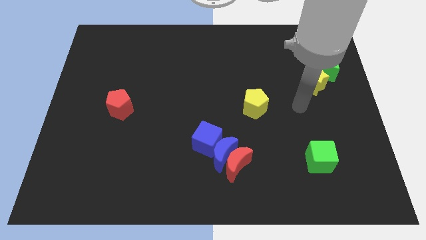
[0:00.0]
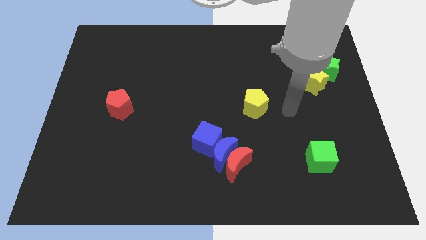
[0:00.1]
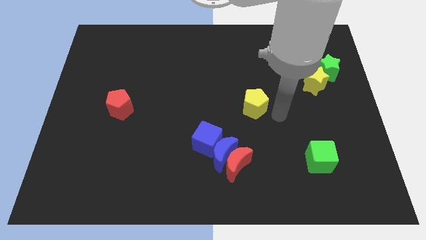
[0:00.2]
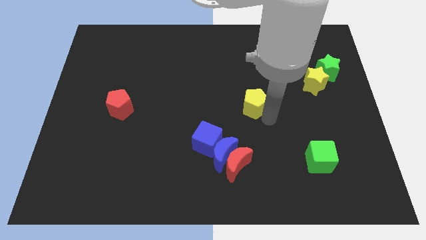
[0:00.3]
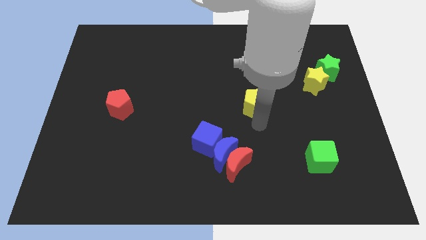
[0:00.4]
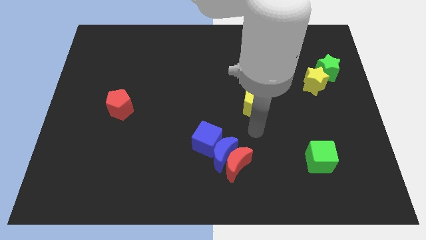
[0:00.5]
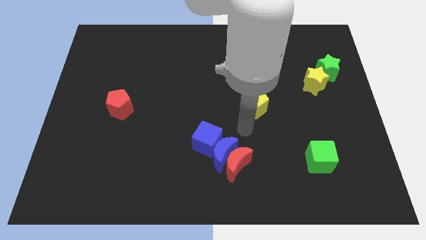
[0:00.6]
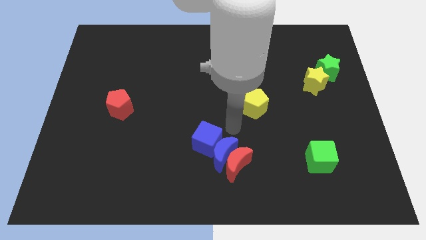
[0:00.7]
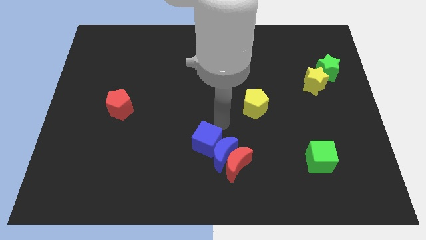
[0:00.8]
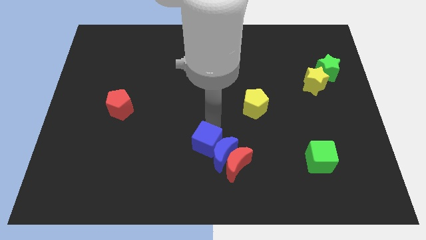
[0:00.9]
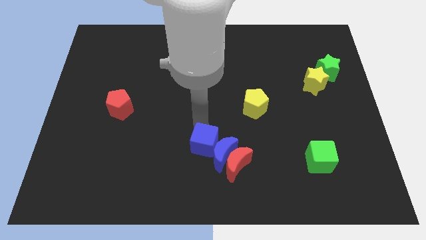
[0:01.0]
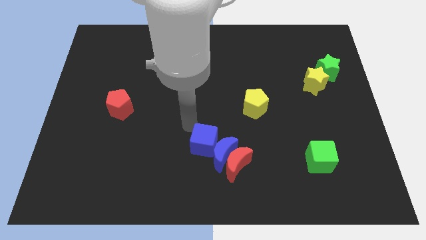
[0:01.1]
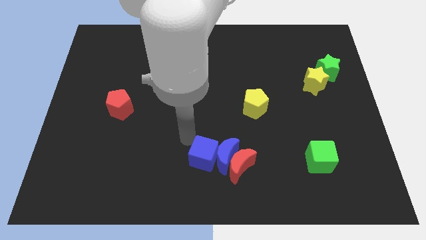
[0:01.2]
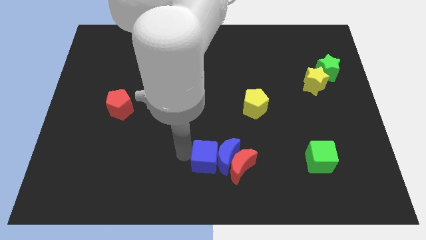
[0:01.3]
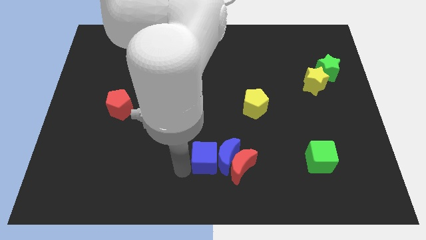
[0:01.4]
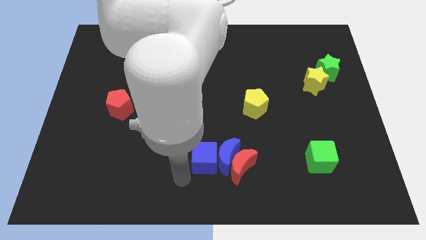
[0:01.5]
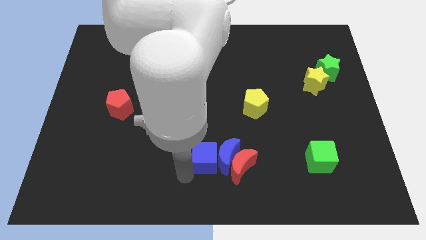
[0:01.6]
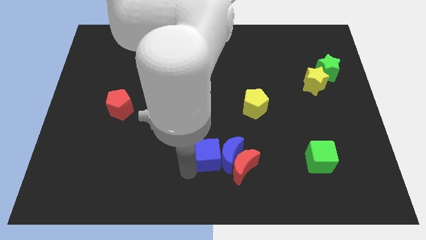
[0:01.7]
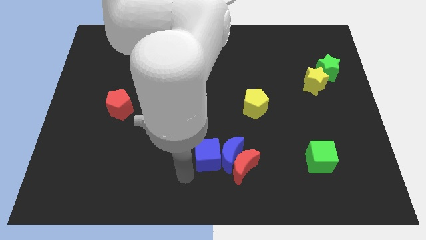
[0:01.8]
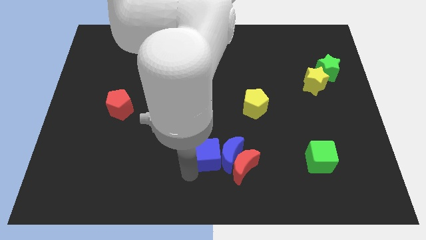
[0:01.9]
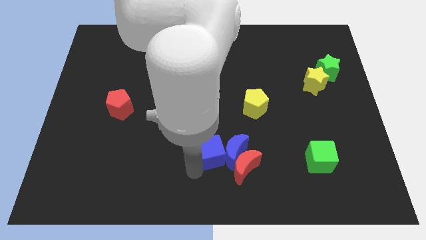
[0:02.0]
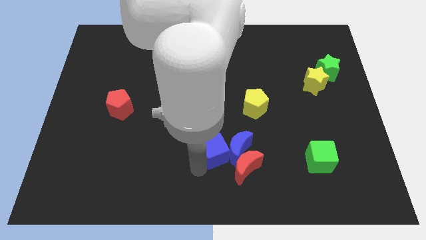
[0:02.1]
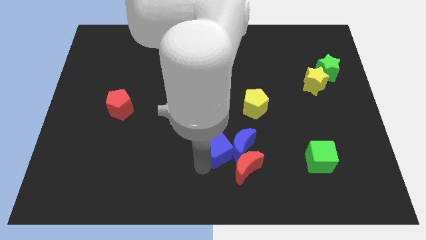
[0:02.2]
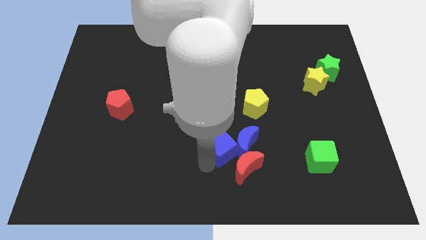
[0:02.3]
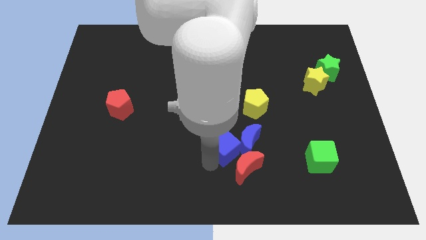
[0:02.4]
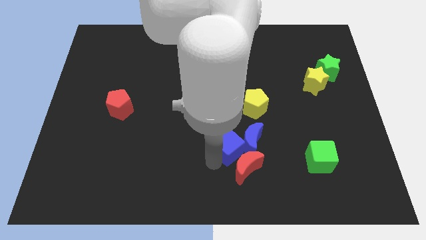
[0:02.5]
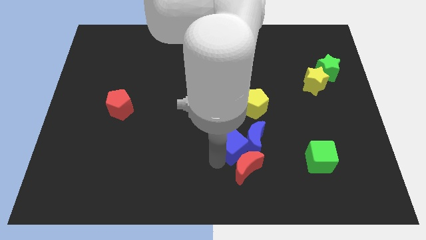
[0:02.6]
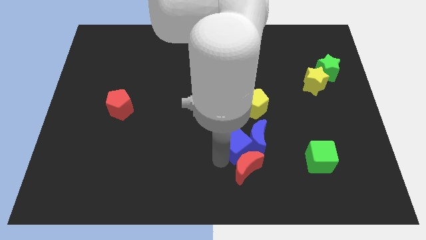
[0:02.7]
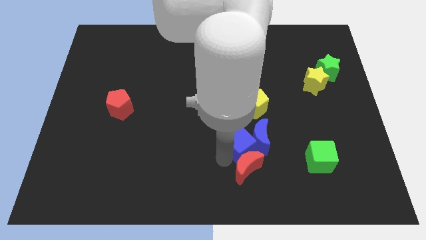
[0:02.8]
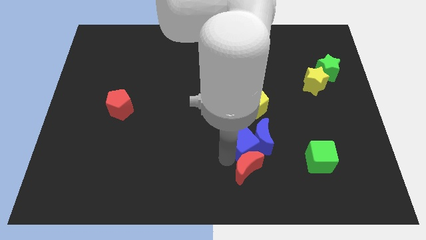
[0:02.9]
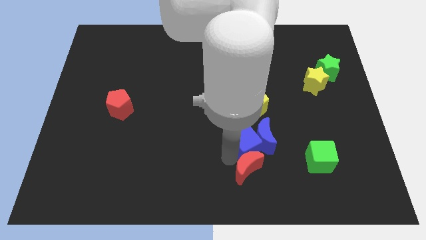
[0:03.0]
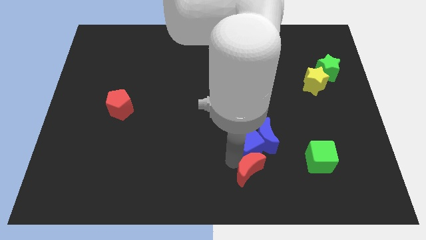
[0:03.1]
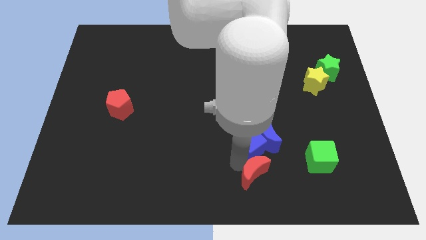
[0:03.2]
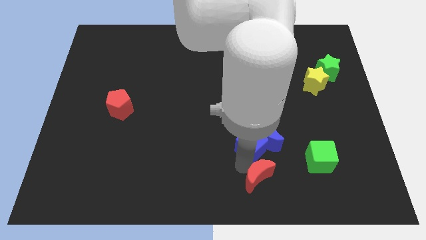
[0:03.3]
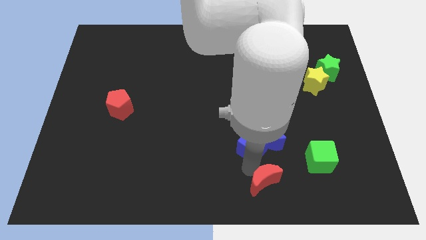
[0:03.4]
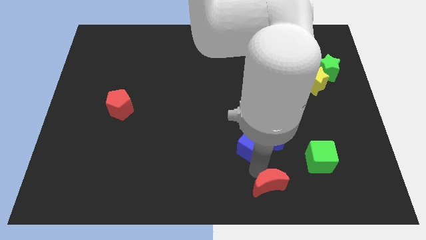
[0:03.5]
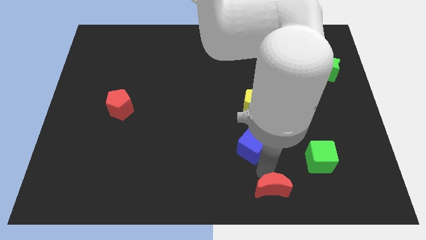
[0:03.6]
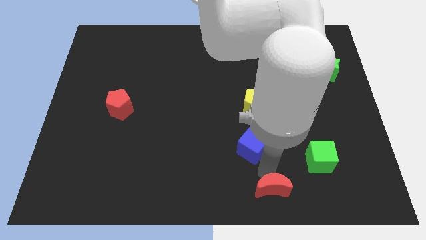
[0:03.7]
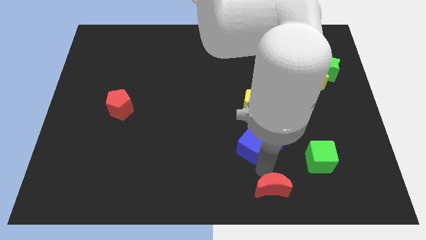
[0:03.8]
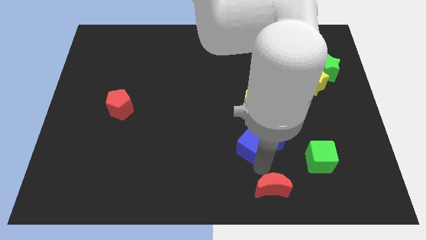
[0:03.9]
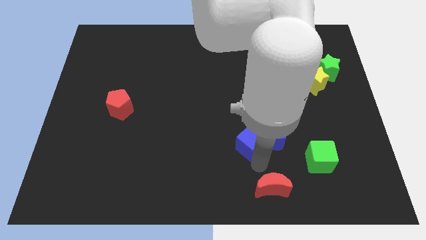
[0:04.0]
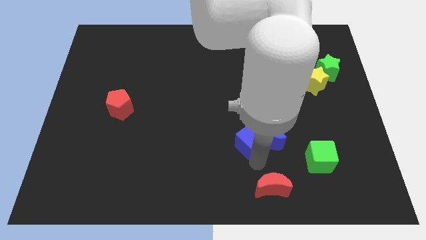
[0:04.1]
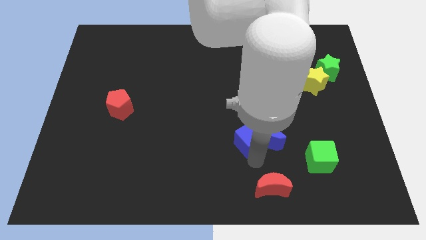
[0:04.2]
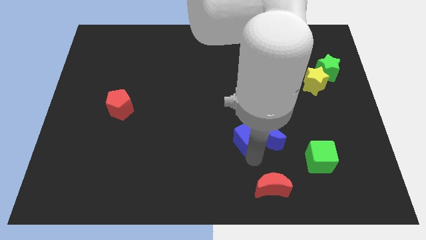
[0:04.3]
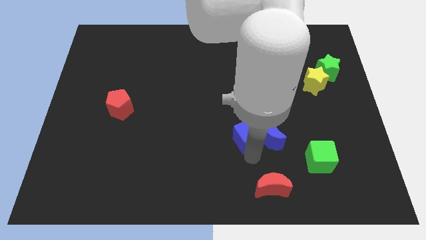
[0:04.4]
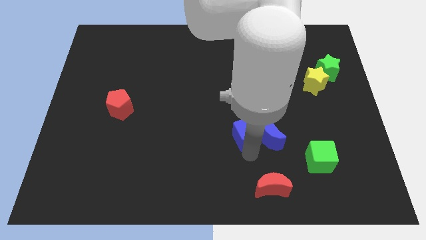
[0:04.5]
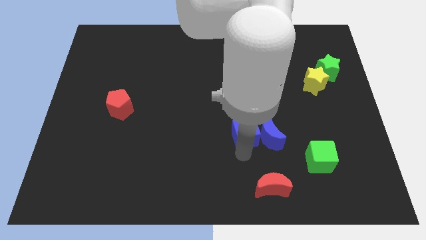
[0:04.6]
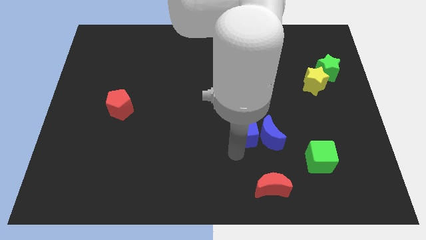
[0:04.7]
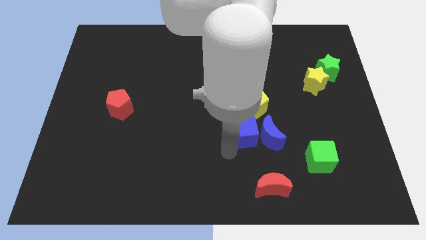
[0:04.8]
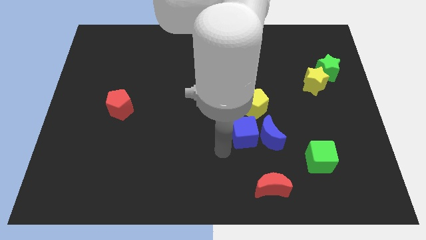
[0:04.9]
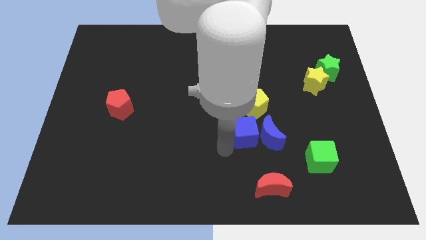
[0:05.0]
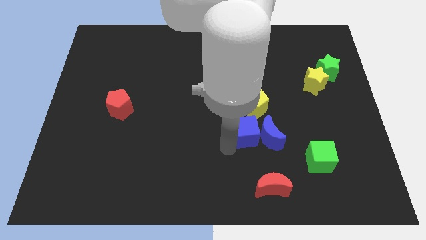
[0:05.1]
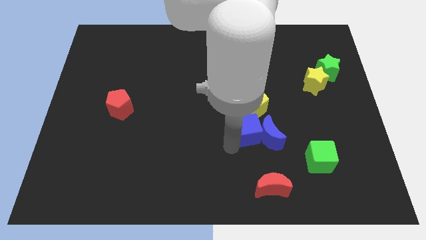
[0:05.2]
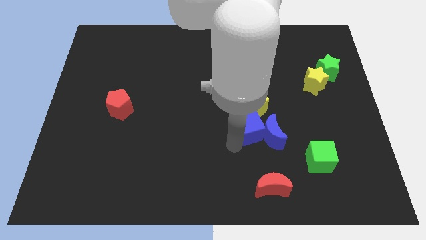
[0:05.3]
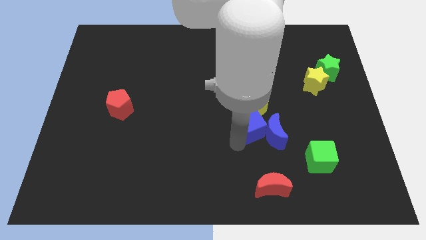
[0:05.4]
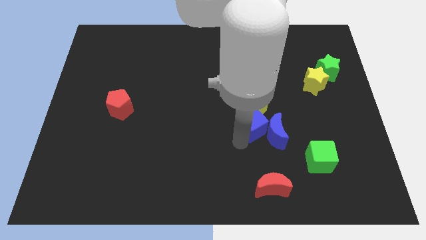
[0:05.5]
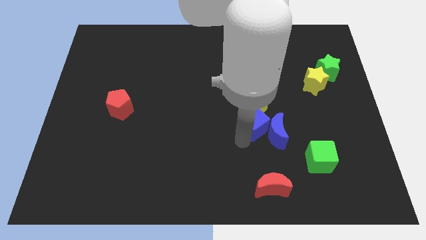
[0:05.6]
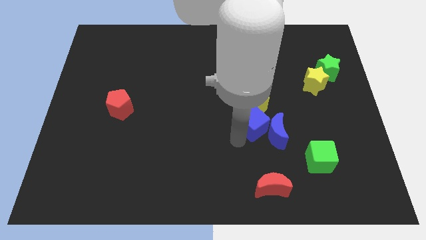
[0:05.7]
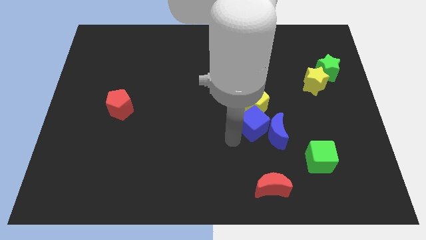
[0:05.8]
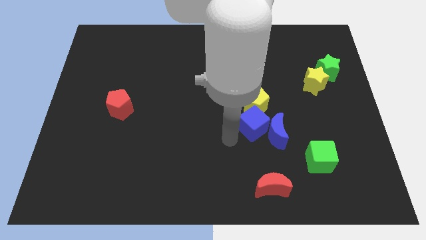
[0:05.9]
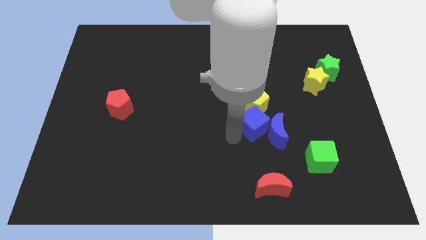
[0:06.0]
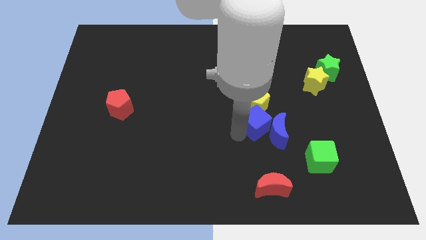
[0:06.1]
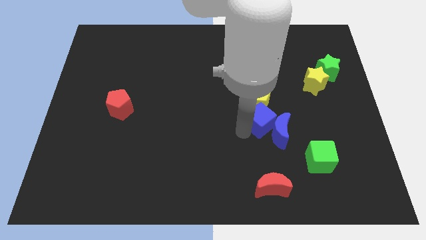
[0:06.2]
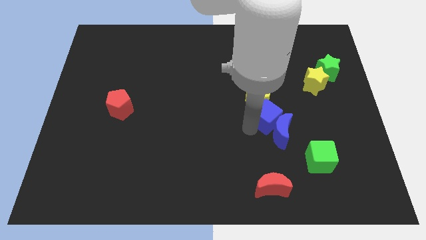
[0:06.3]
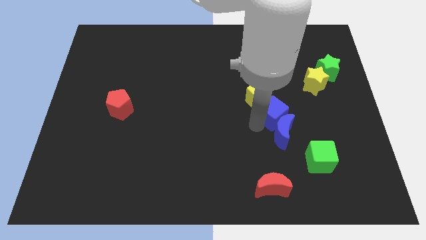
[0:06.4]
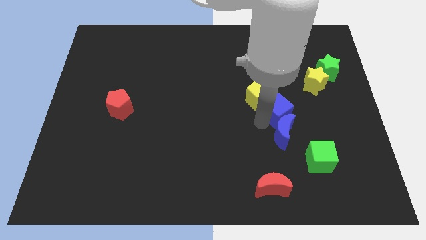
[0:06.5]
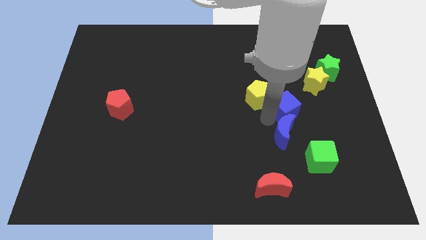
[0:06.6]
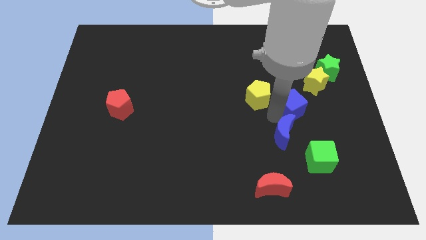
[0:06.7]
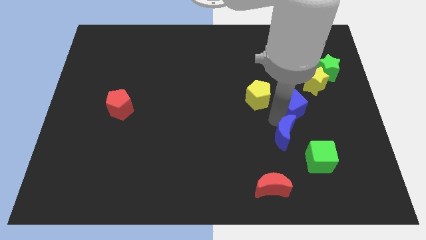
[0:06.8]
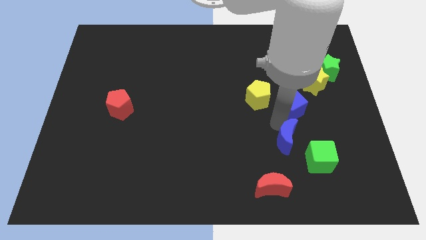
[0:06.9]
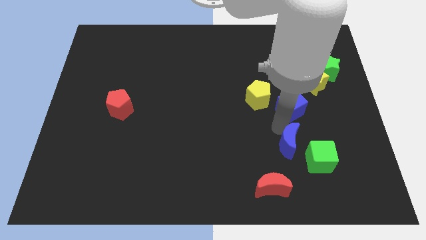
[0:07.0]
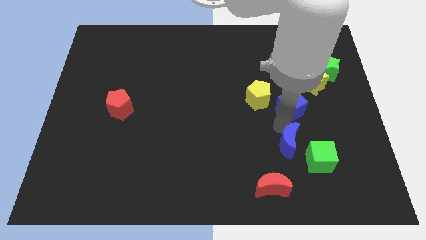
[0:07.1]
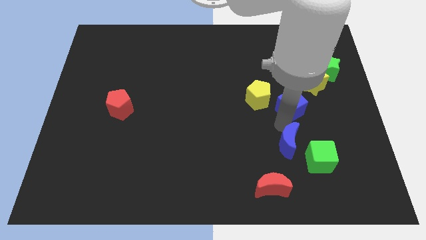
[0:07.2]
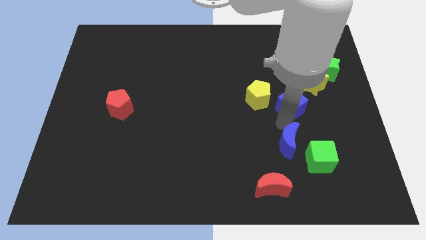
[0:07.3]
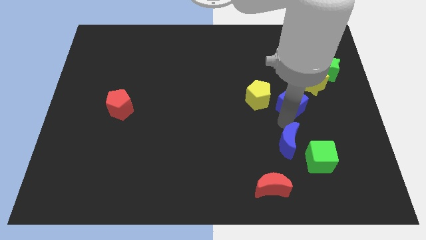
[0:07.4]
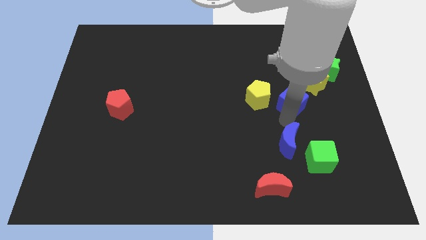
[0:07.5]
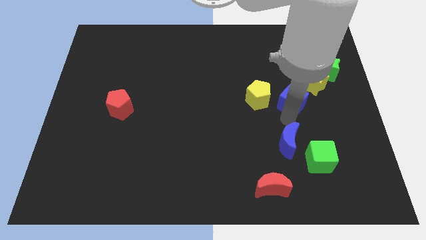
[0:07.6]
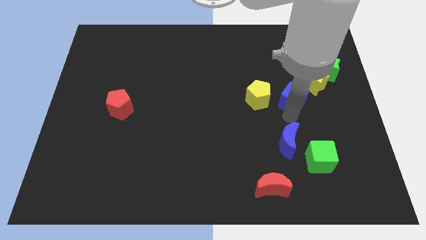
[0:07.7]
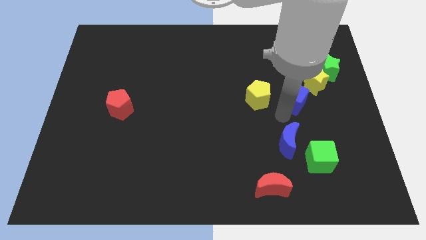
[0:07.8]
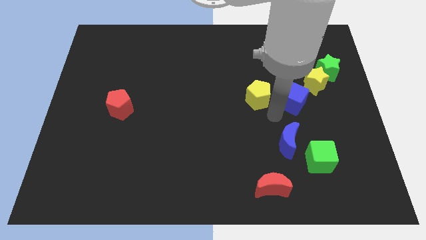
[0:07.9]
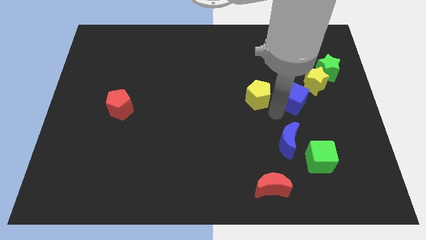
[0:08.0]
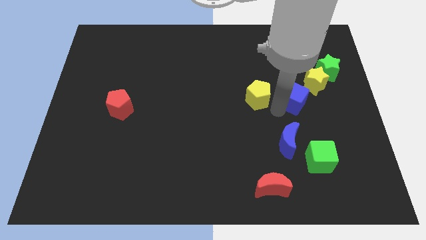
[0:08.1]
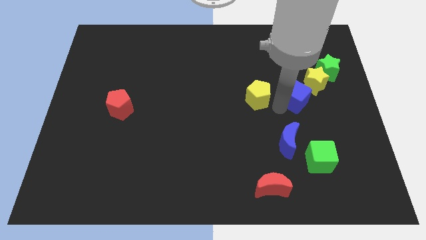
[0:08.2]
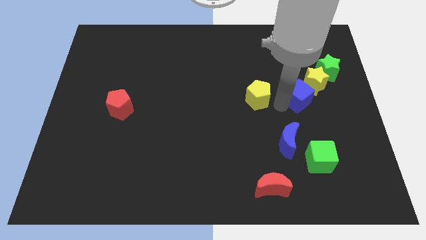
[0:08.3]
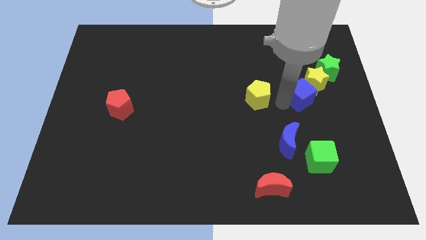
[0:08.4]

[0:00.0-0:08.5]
move the blue cube to the yellow star
